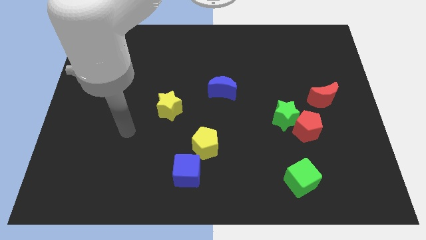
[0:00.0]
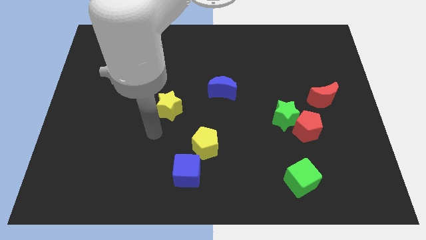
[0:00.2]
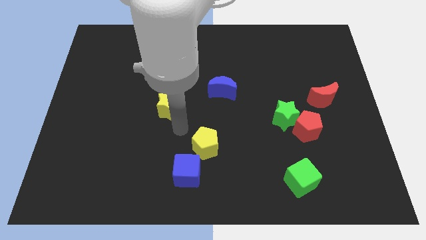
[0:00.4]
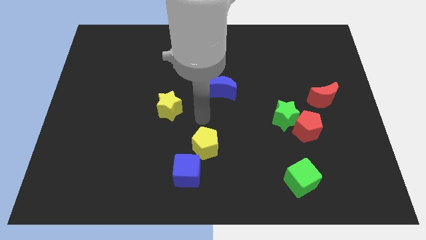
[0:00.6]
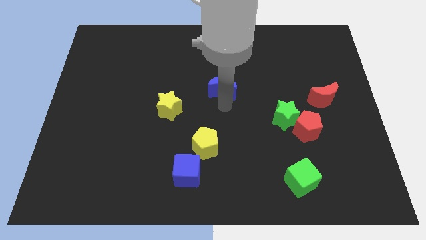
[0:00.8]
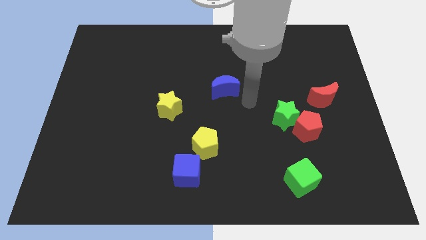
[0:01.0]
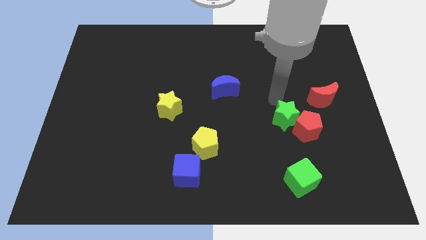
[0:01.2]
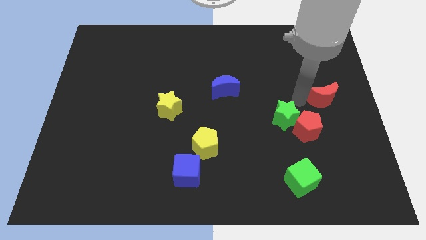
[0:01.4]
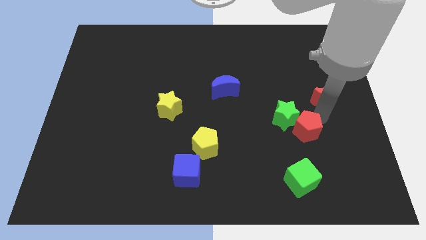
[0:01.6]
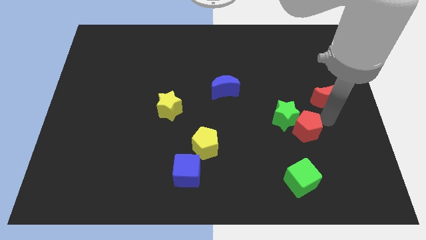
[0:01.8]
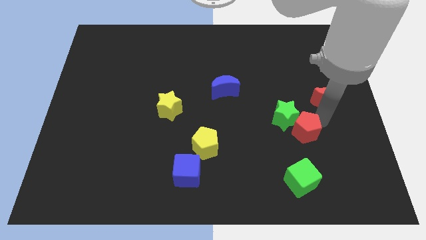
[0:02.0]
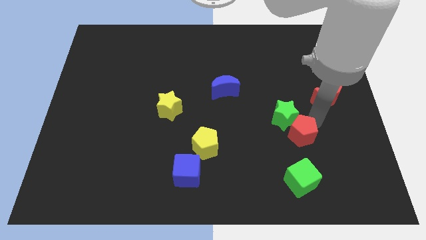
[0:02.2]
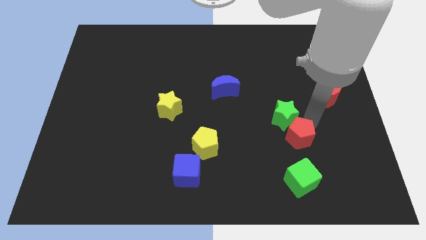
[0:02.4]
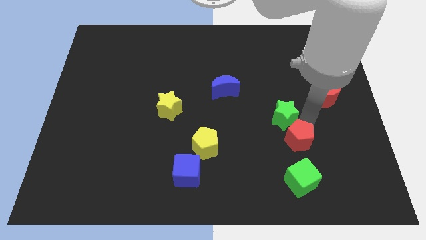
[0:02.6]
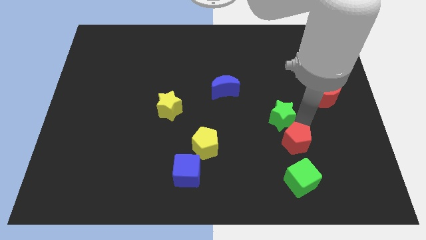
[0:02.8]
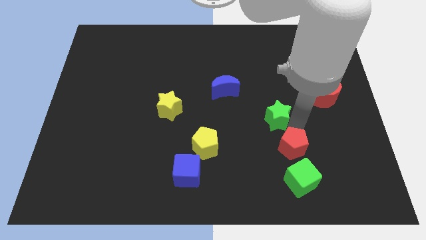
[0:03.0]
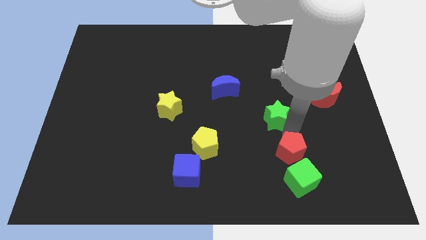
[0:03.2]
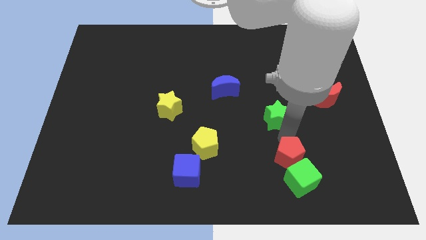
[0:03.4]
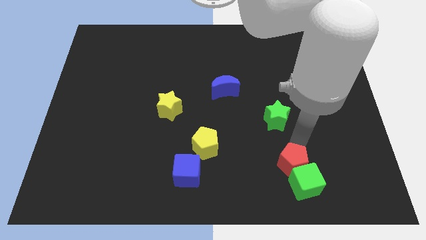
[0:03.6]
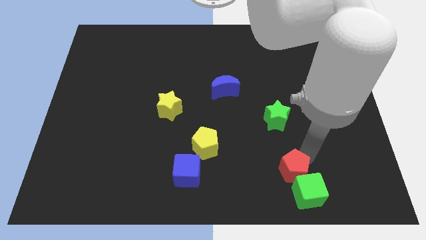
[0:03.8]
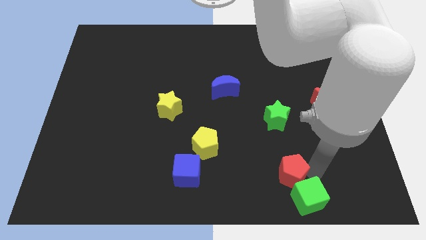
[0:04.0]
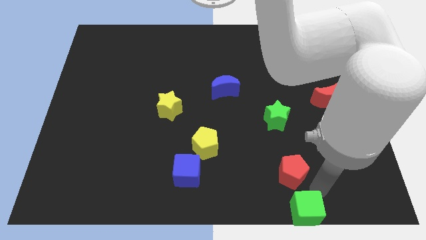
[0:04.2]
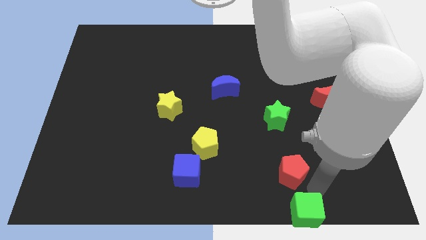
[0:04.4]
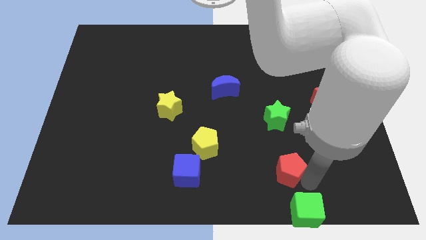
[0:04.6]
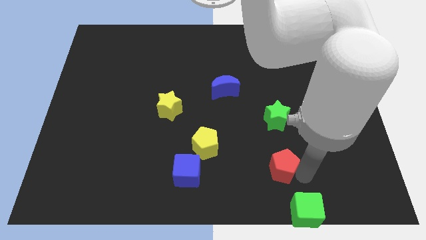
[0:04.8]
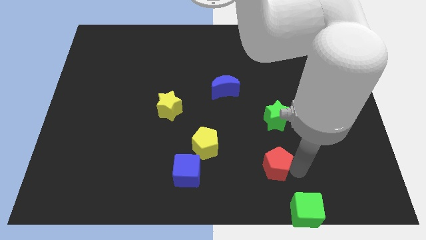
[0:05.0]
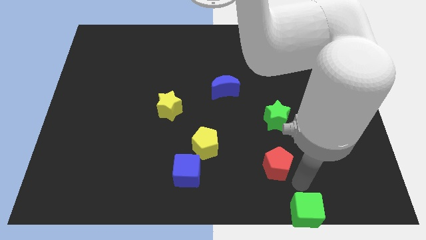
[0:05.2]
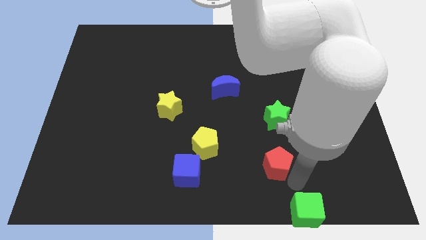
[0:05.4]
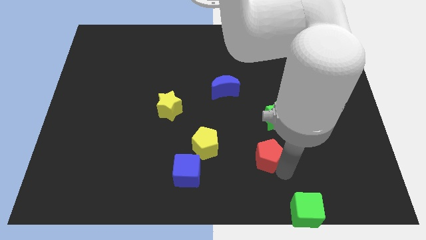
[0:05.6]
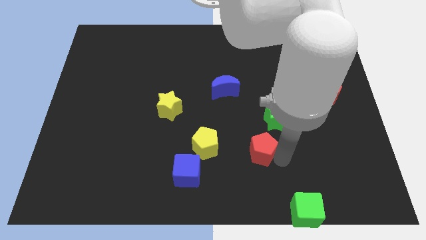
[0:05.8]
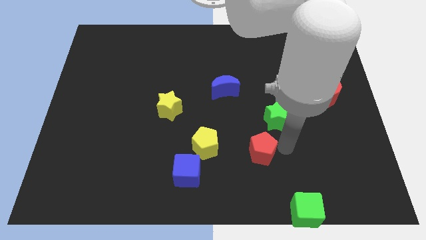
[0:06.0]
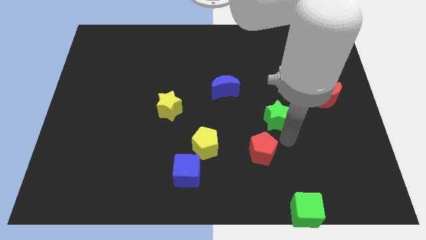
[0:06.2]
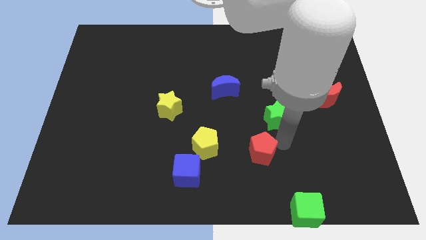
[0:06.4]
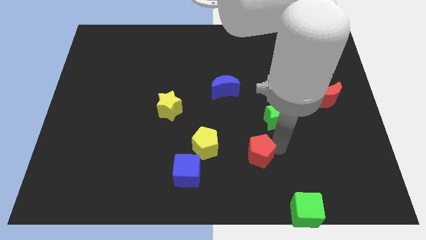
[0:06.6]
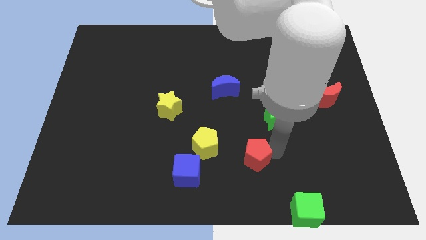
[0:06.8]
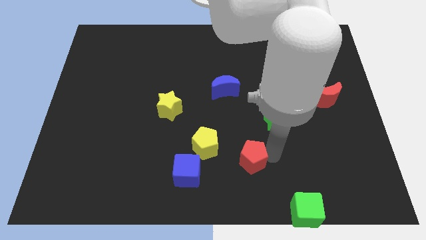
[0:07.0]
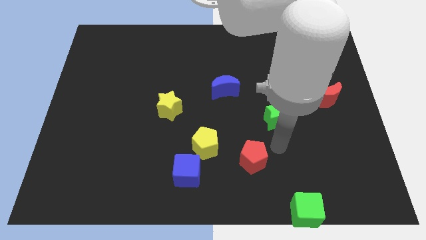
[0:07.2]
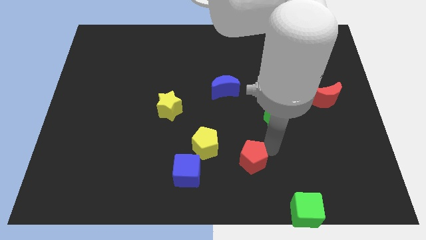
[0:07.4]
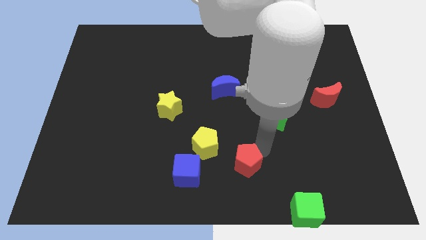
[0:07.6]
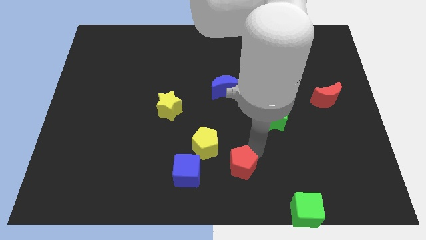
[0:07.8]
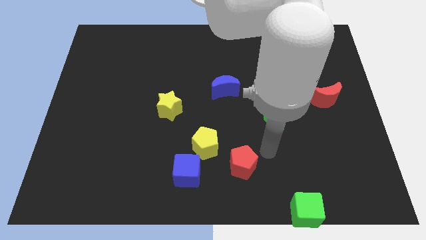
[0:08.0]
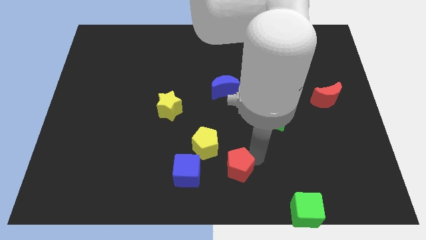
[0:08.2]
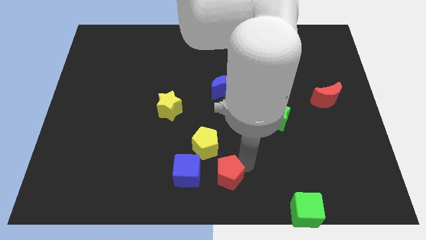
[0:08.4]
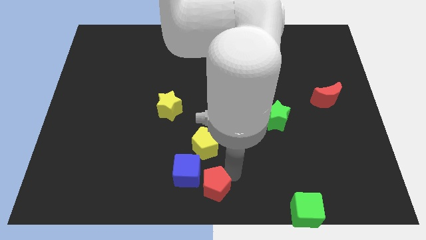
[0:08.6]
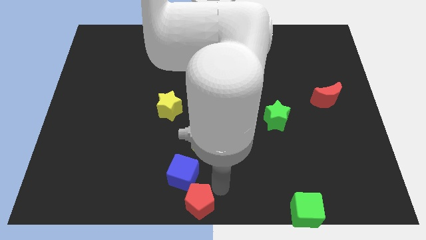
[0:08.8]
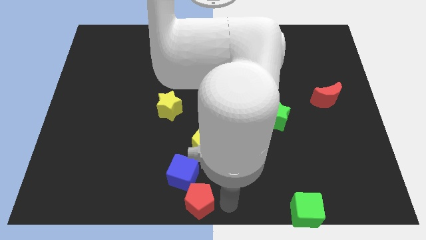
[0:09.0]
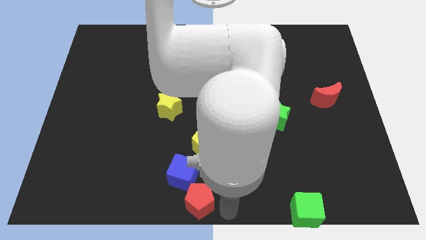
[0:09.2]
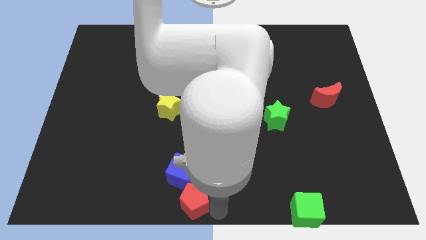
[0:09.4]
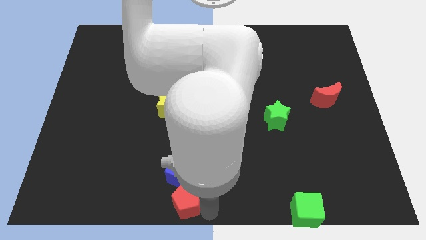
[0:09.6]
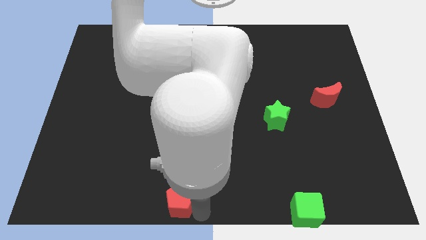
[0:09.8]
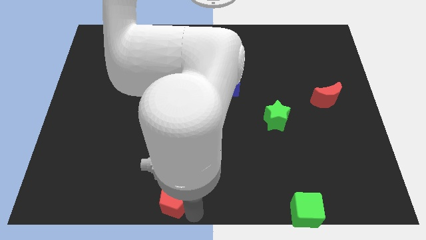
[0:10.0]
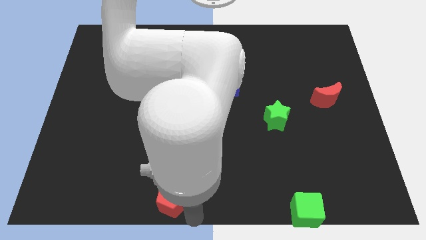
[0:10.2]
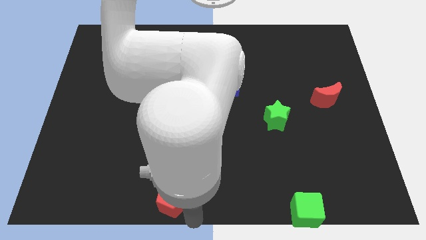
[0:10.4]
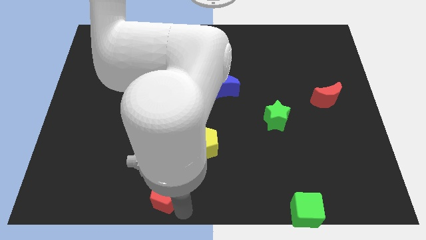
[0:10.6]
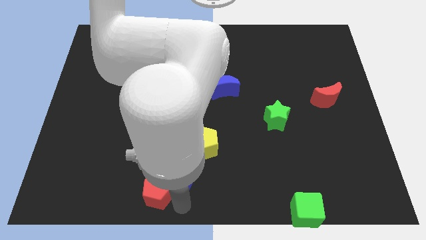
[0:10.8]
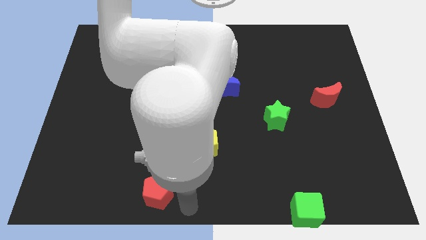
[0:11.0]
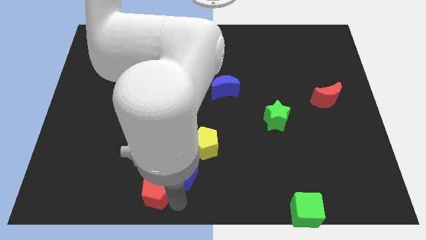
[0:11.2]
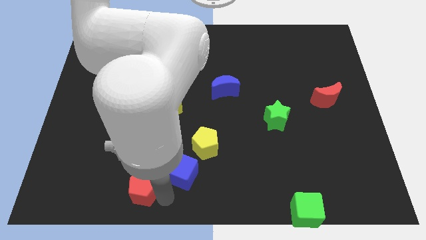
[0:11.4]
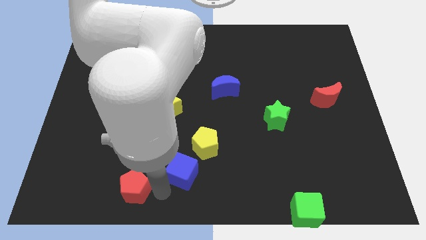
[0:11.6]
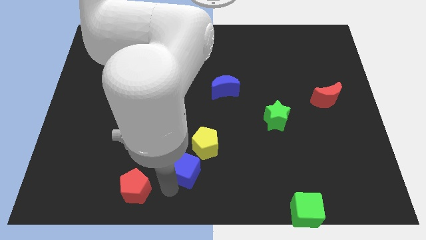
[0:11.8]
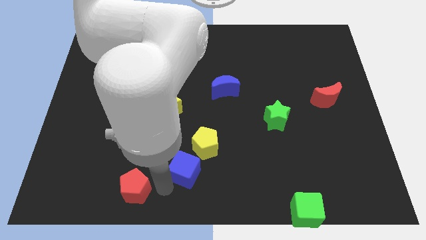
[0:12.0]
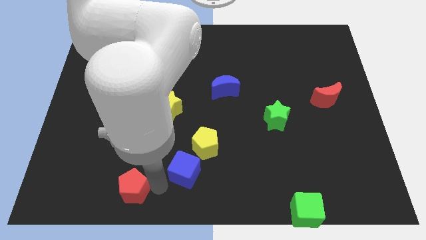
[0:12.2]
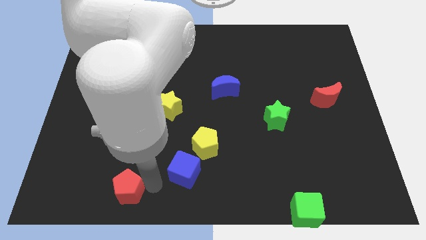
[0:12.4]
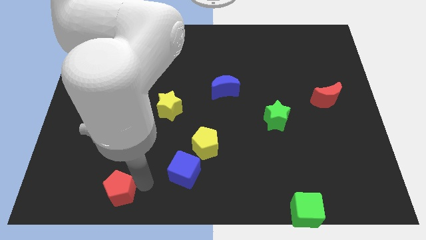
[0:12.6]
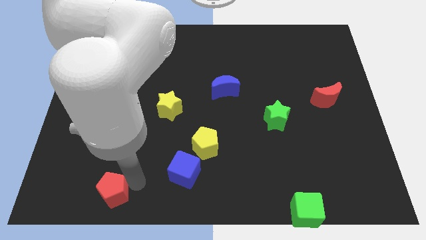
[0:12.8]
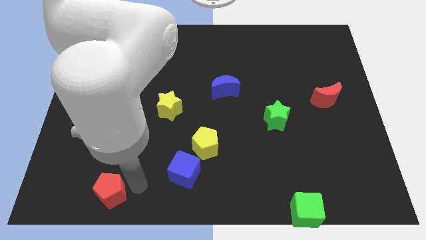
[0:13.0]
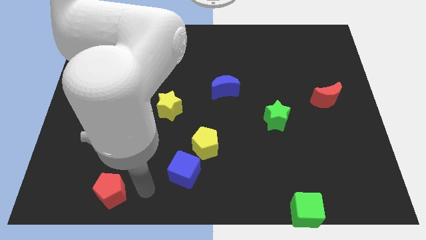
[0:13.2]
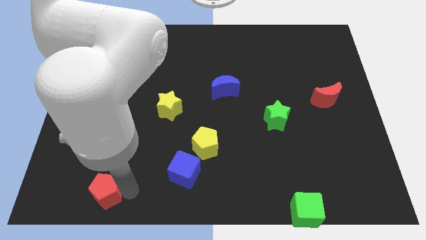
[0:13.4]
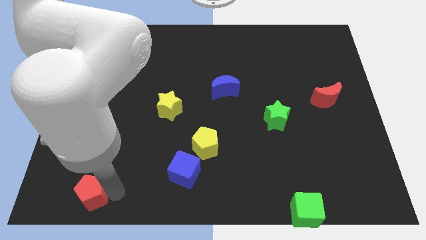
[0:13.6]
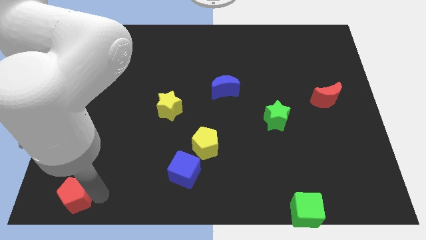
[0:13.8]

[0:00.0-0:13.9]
push the red pentagon to the lower left corner
